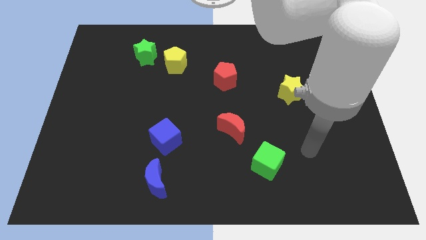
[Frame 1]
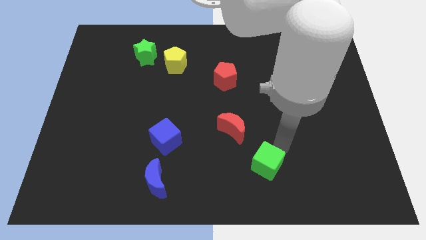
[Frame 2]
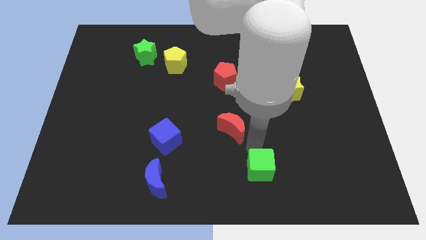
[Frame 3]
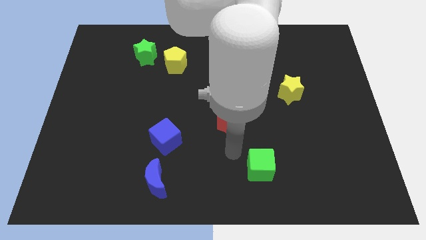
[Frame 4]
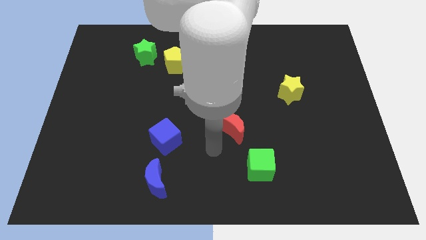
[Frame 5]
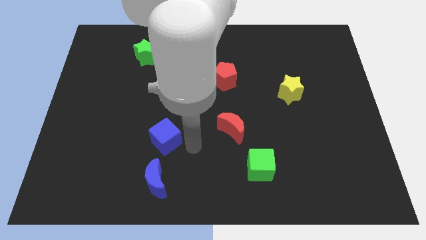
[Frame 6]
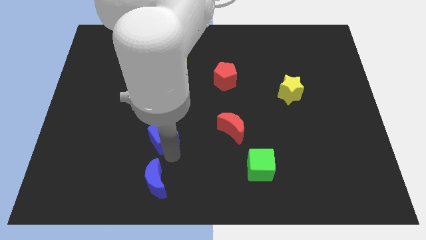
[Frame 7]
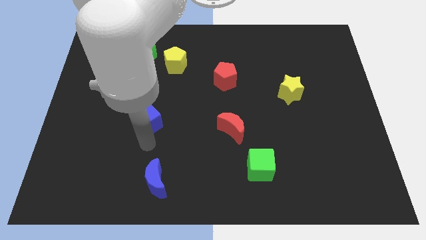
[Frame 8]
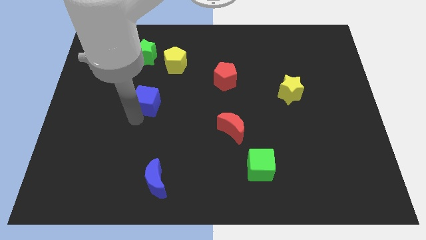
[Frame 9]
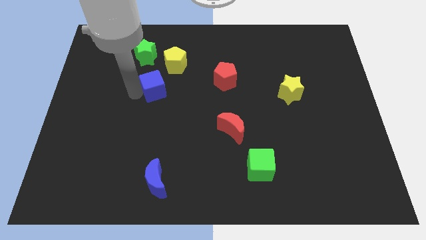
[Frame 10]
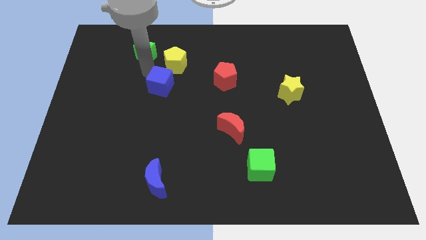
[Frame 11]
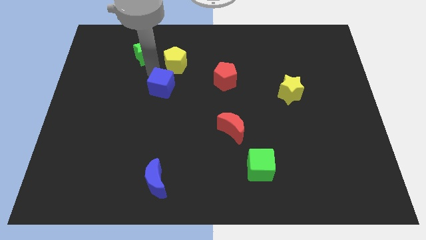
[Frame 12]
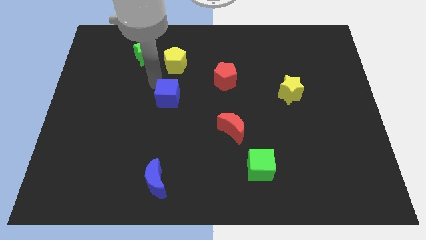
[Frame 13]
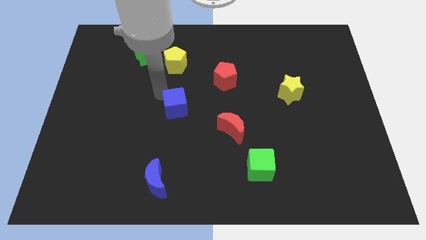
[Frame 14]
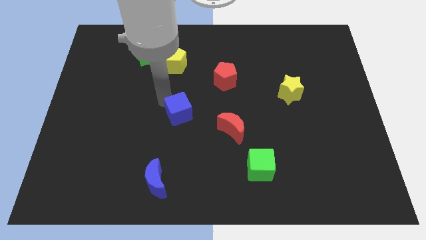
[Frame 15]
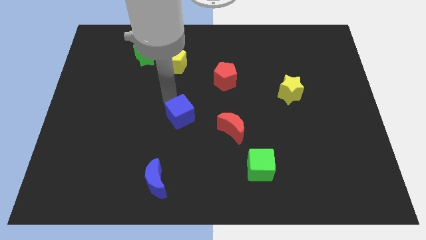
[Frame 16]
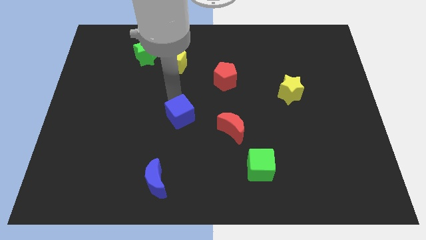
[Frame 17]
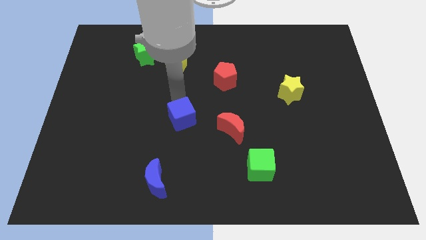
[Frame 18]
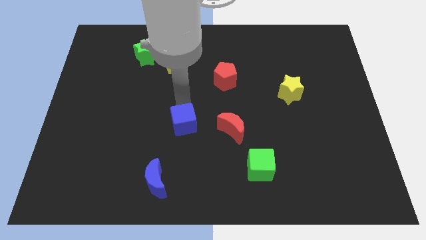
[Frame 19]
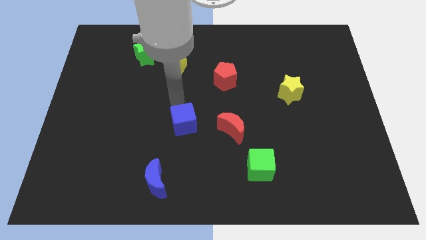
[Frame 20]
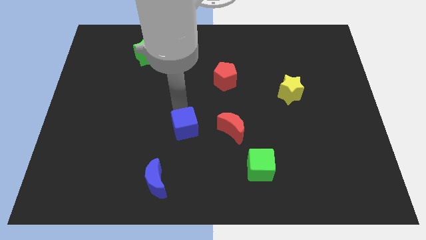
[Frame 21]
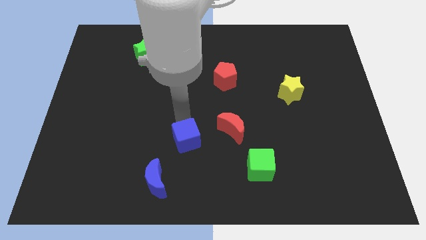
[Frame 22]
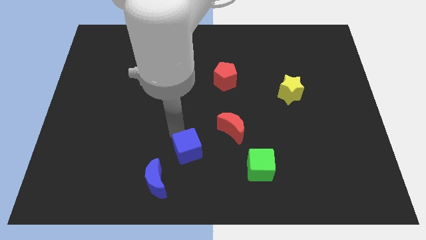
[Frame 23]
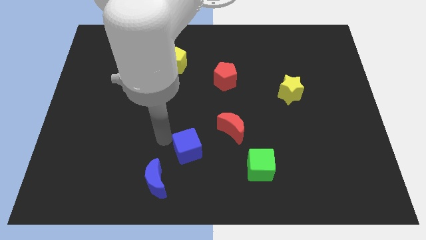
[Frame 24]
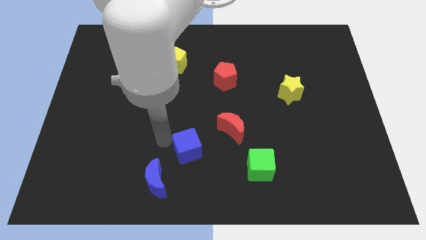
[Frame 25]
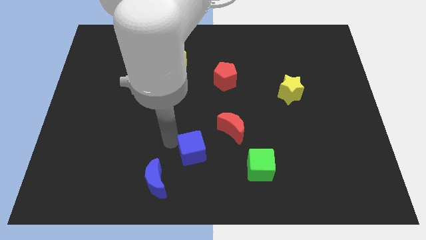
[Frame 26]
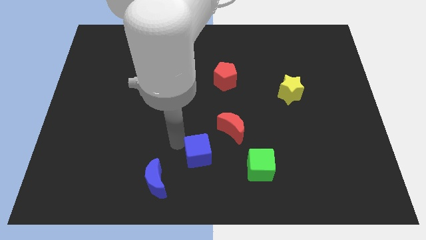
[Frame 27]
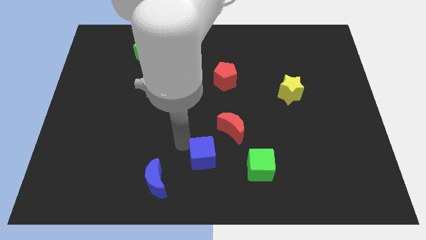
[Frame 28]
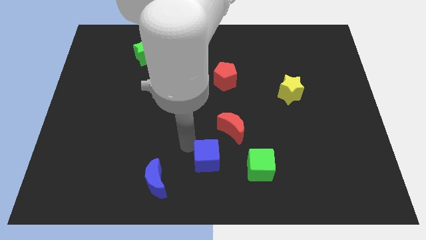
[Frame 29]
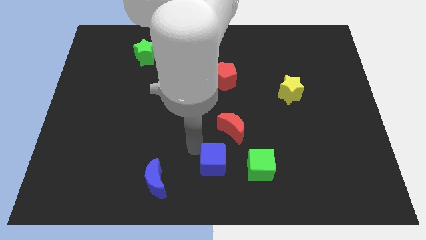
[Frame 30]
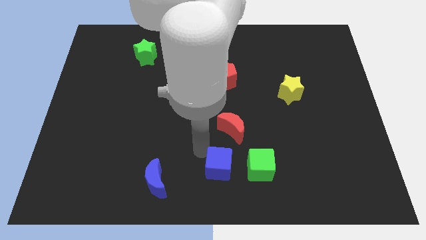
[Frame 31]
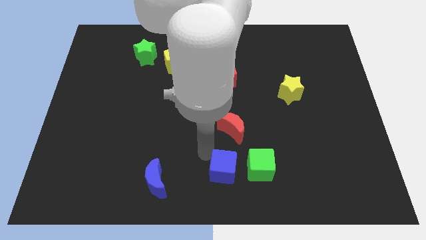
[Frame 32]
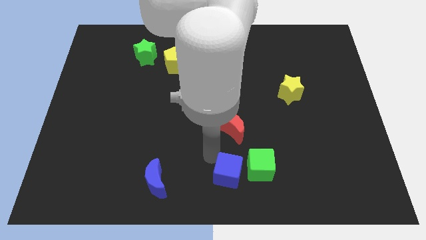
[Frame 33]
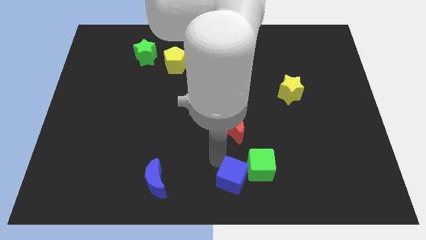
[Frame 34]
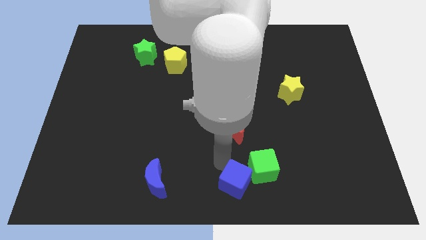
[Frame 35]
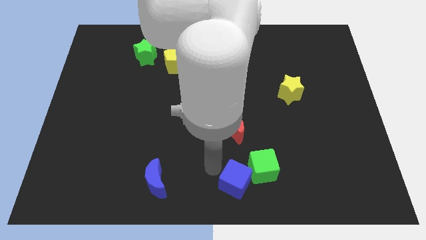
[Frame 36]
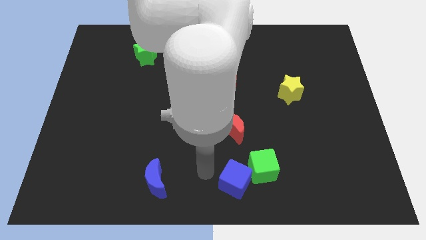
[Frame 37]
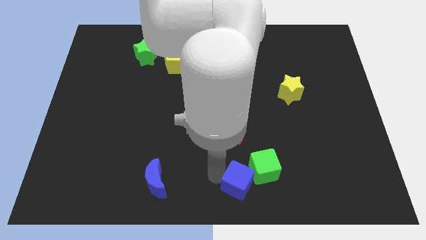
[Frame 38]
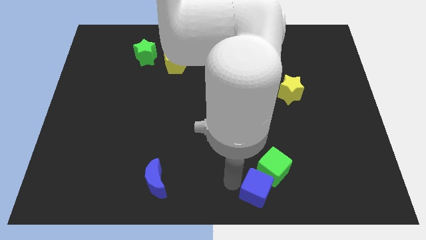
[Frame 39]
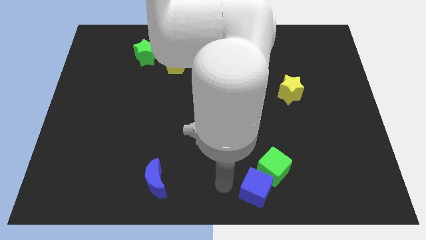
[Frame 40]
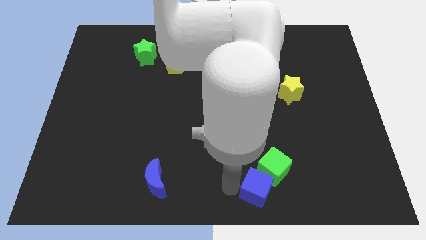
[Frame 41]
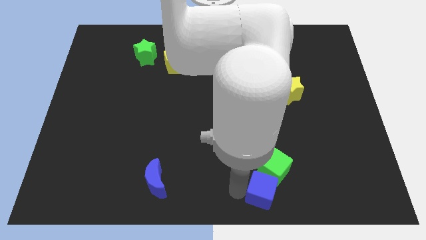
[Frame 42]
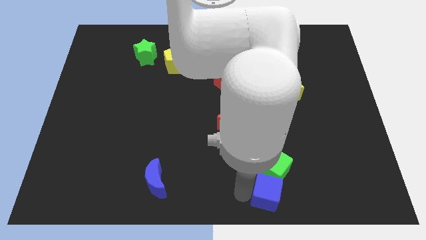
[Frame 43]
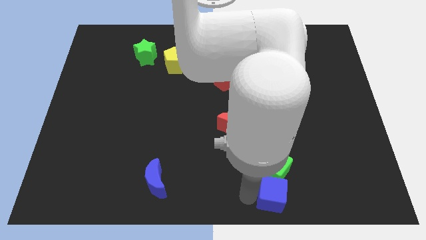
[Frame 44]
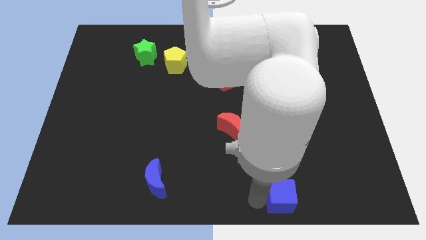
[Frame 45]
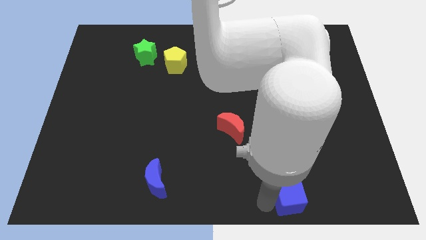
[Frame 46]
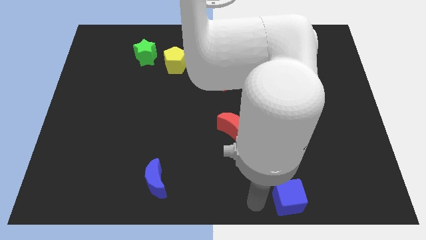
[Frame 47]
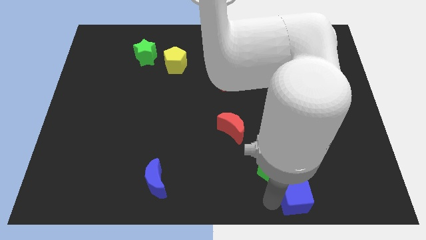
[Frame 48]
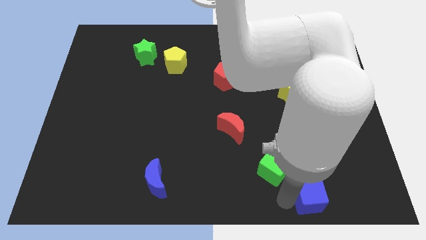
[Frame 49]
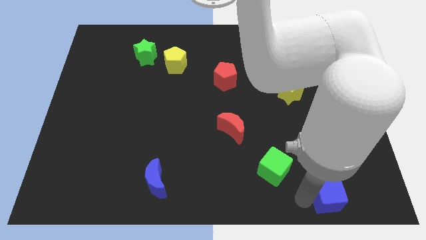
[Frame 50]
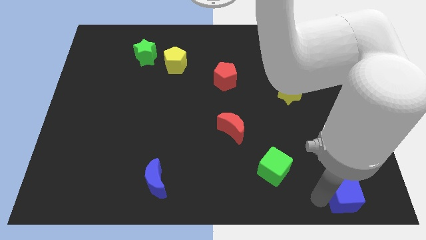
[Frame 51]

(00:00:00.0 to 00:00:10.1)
push the blue cube to the lower right corner

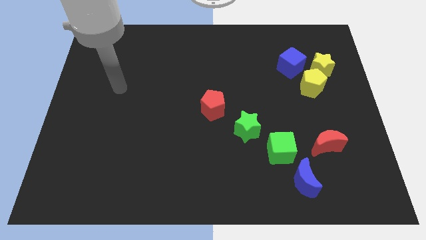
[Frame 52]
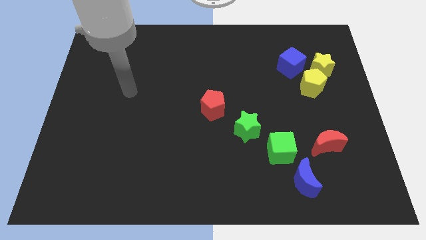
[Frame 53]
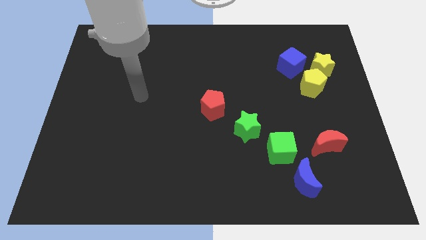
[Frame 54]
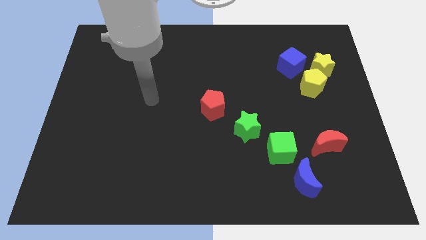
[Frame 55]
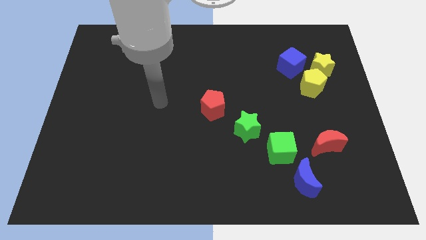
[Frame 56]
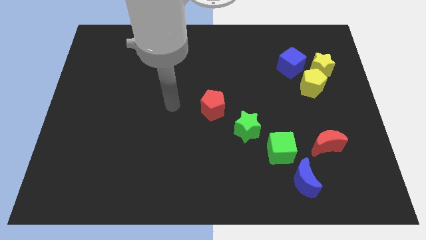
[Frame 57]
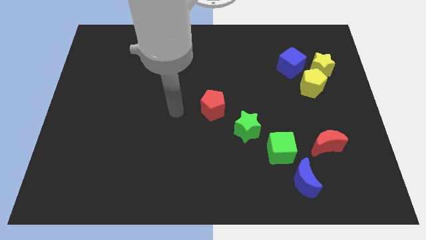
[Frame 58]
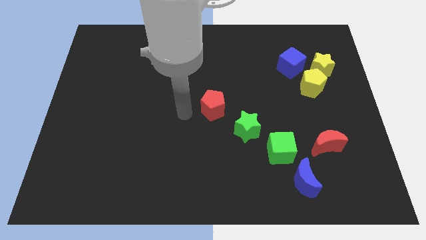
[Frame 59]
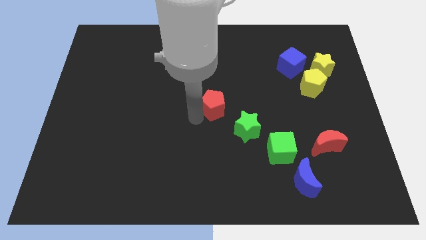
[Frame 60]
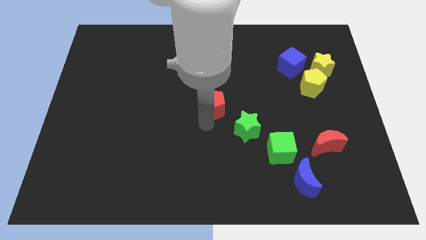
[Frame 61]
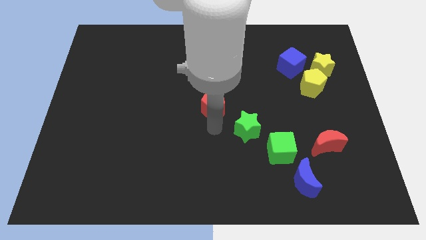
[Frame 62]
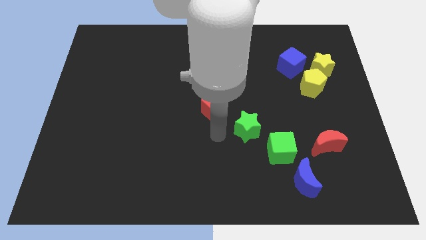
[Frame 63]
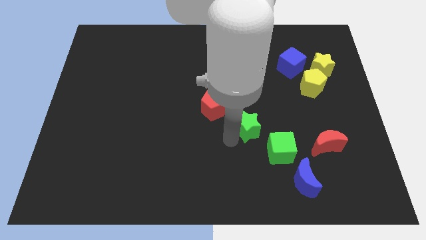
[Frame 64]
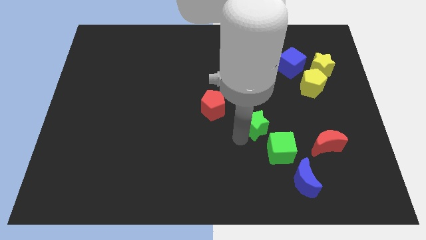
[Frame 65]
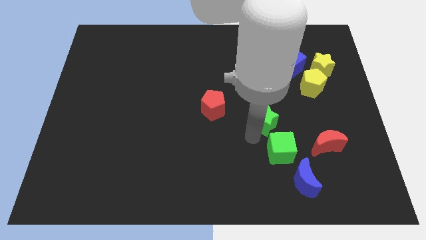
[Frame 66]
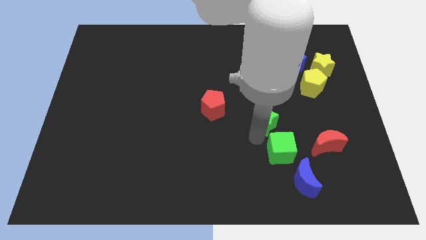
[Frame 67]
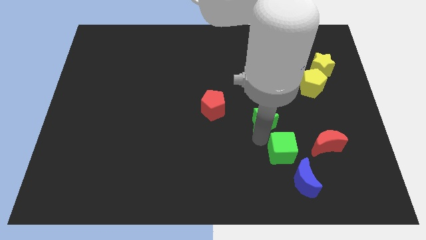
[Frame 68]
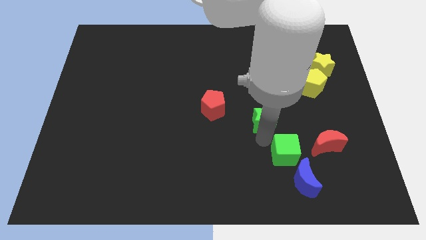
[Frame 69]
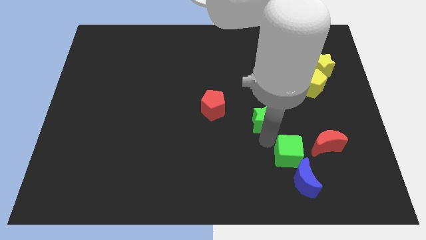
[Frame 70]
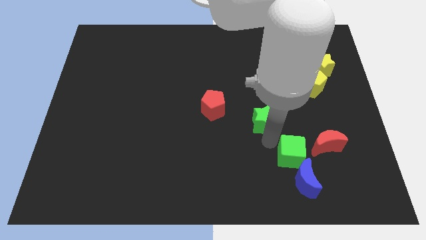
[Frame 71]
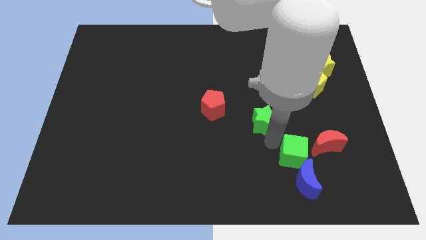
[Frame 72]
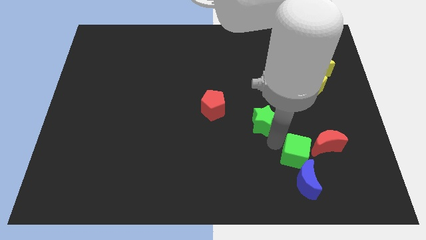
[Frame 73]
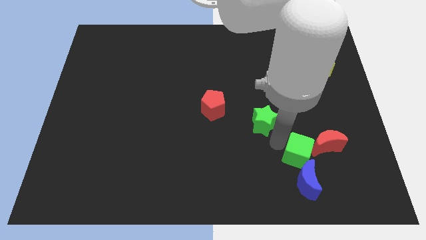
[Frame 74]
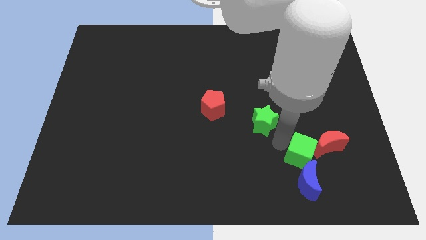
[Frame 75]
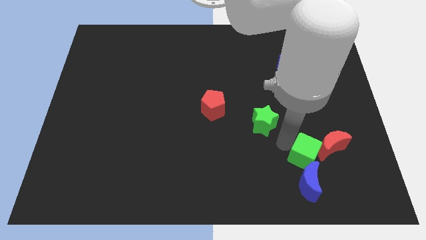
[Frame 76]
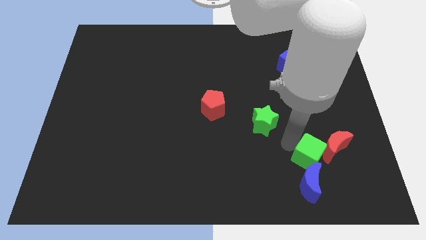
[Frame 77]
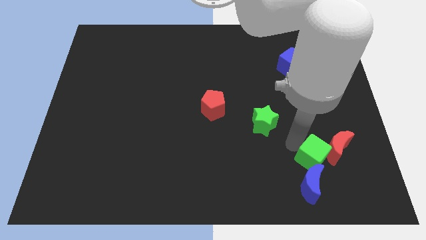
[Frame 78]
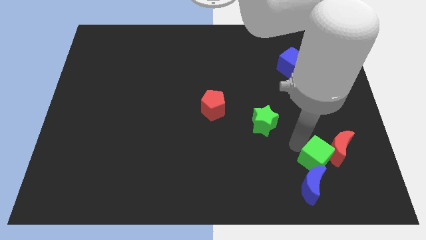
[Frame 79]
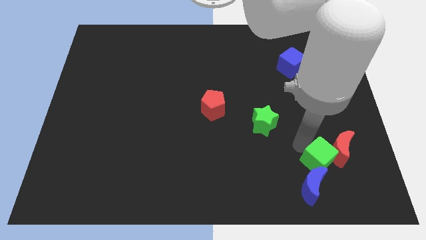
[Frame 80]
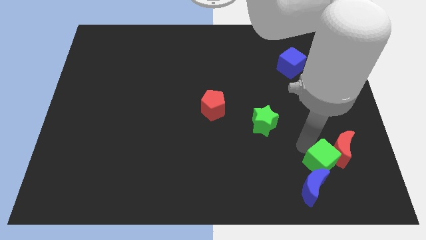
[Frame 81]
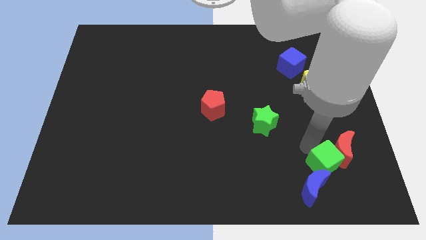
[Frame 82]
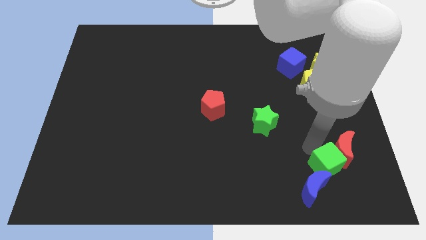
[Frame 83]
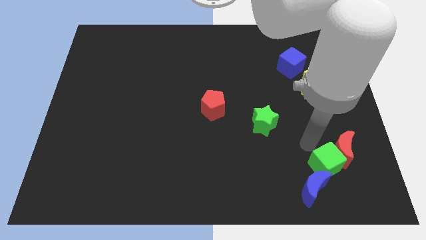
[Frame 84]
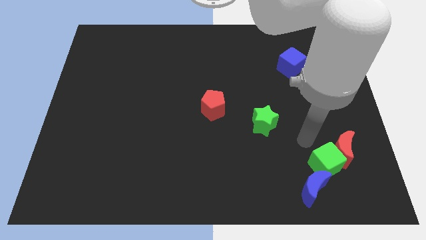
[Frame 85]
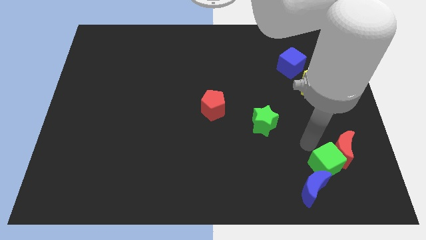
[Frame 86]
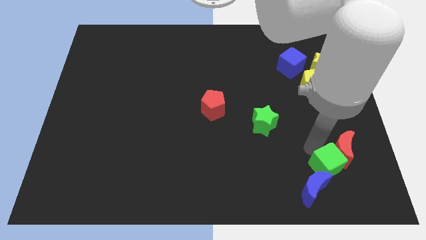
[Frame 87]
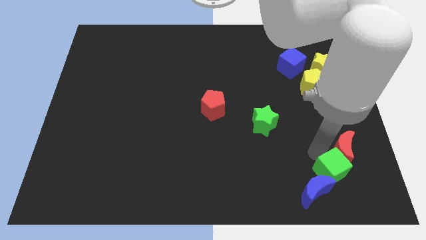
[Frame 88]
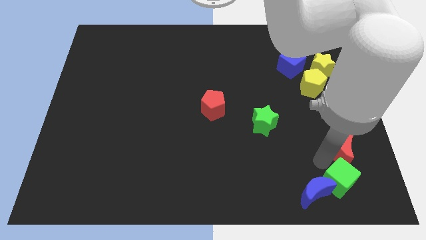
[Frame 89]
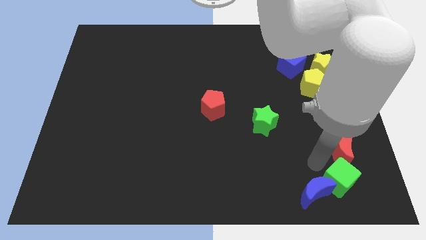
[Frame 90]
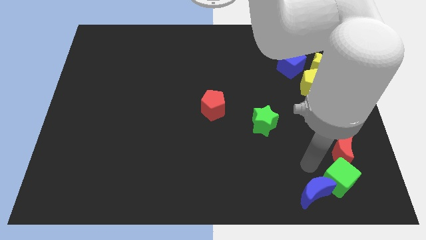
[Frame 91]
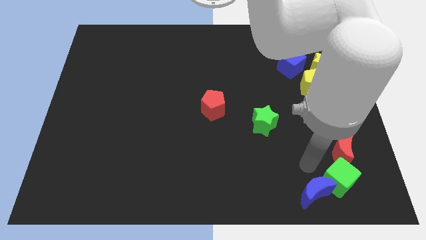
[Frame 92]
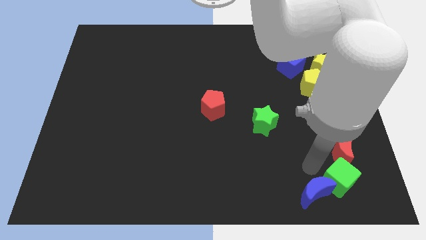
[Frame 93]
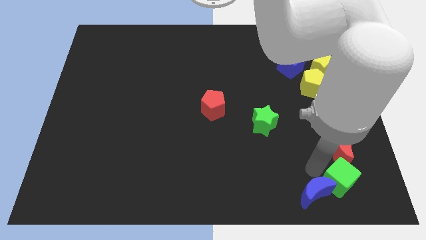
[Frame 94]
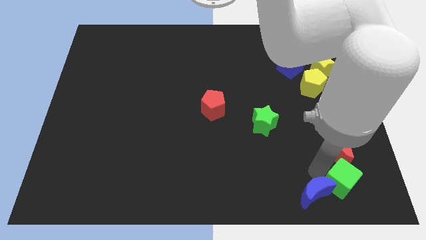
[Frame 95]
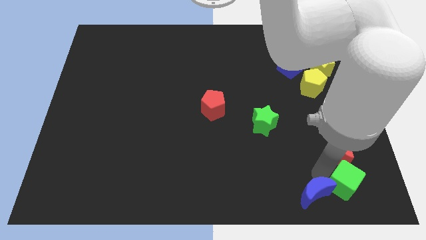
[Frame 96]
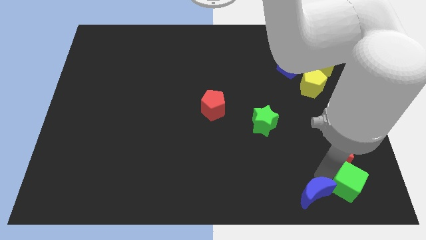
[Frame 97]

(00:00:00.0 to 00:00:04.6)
push the green cube to the bottom right of the board
